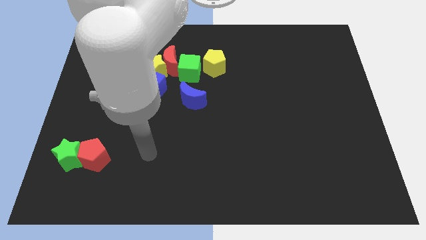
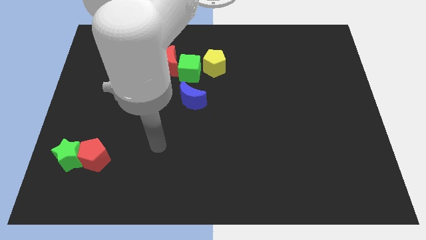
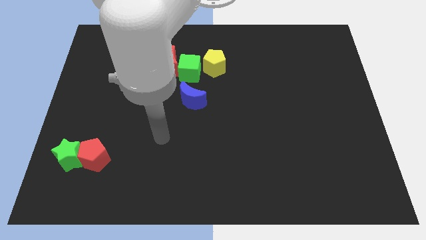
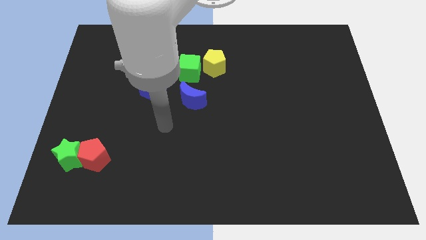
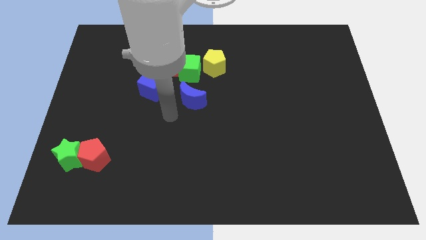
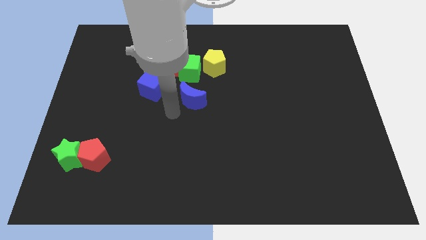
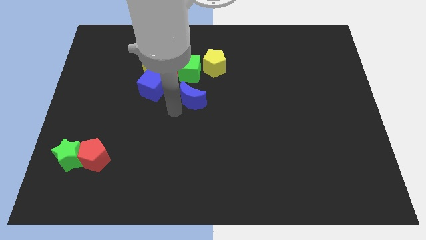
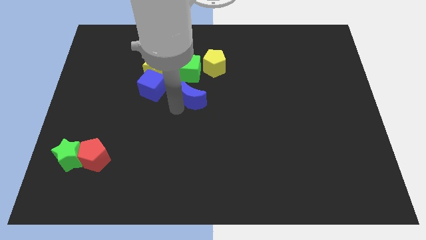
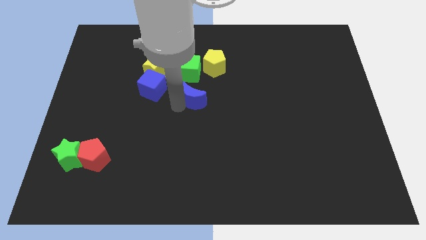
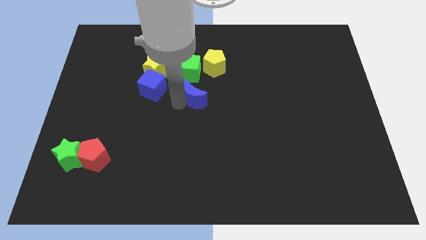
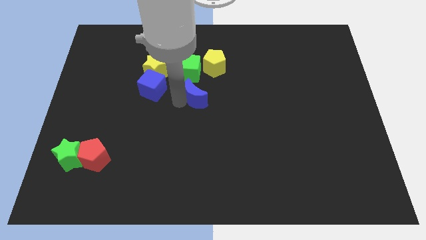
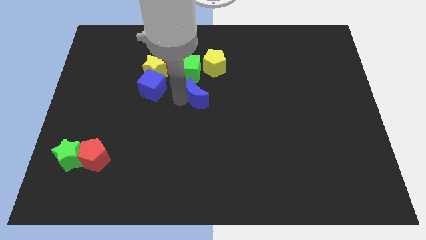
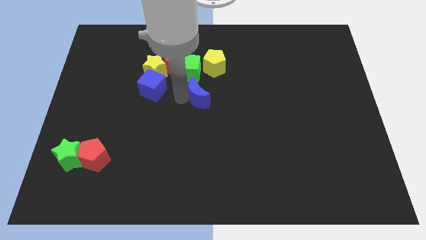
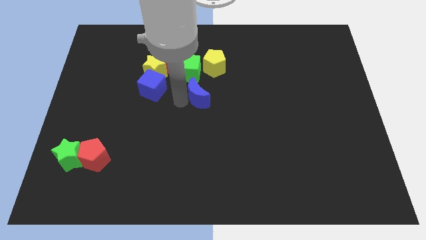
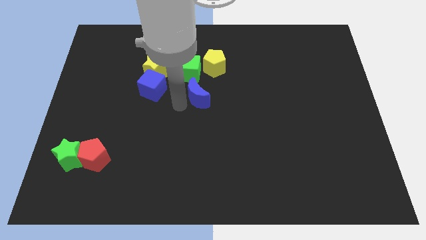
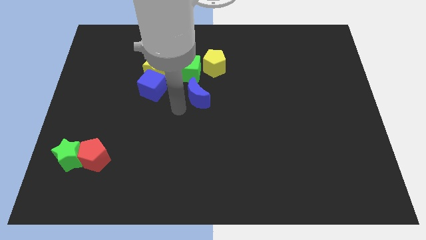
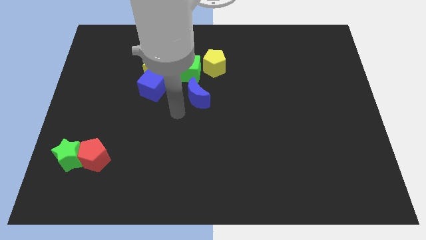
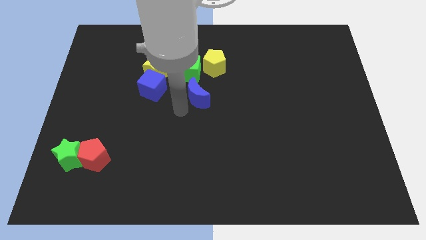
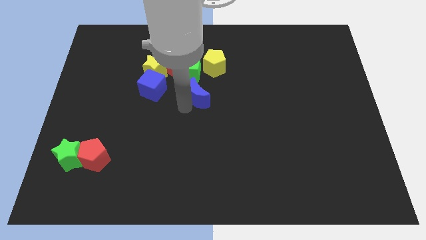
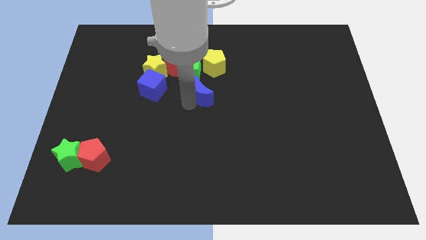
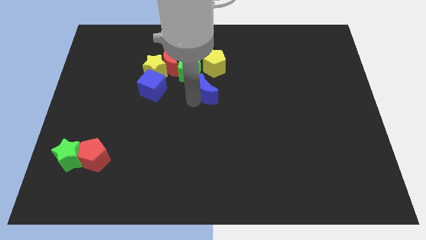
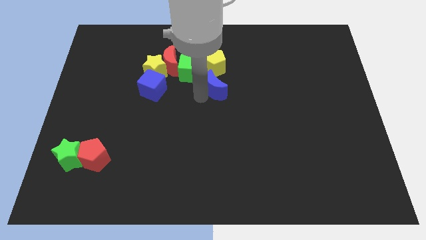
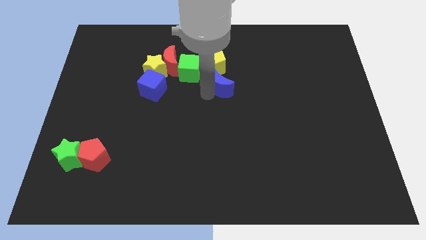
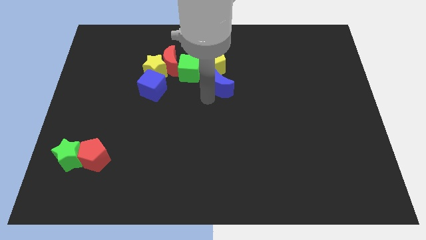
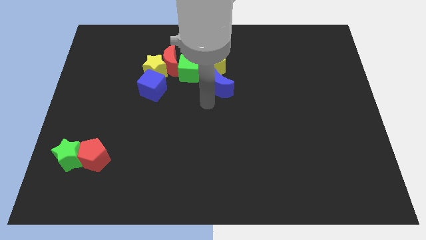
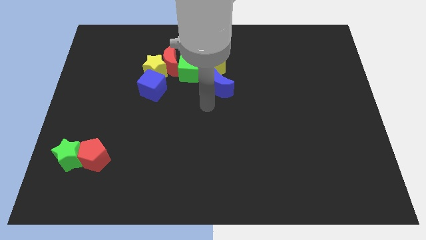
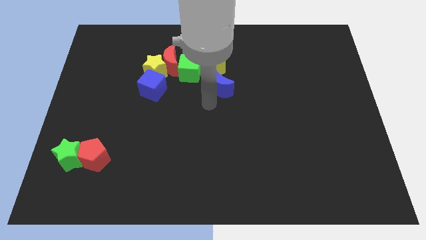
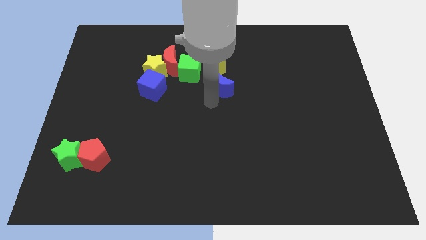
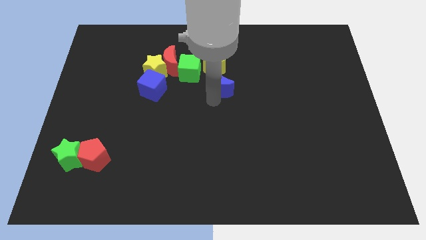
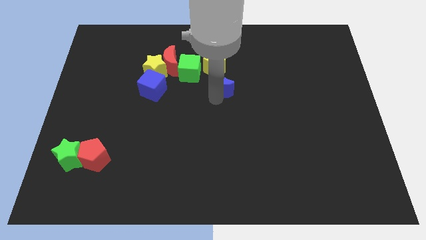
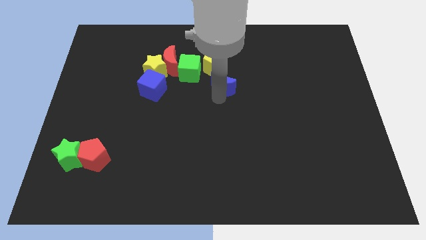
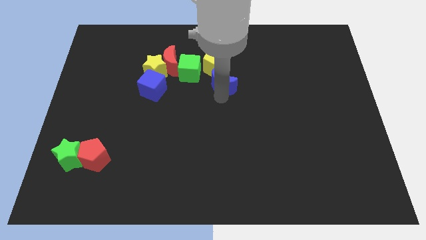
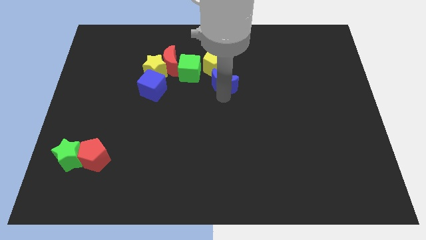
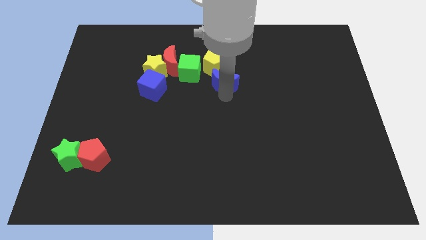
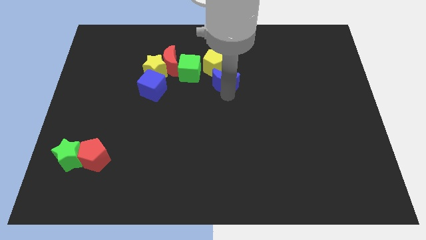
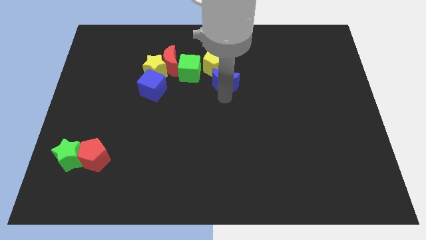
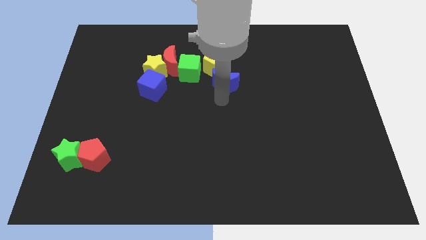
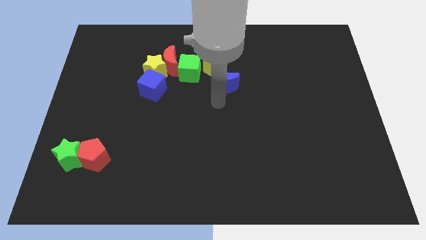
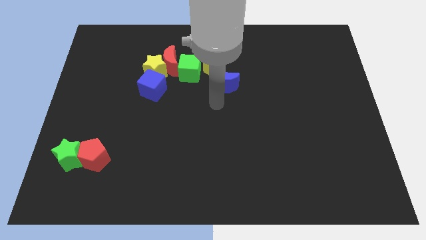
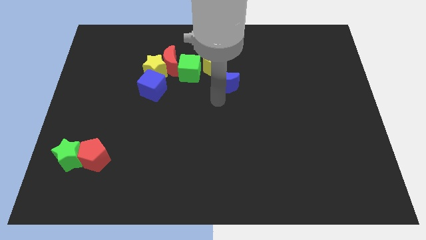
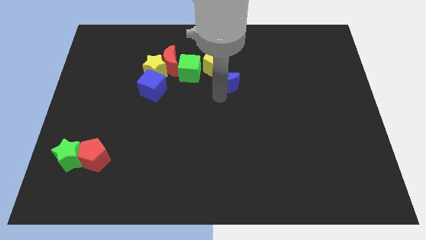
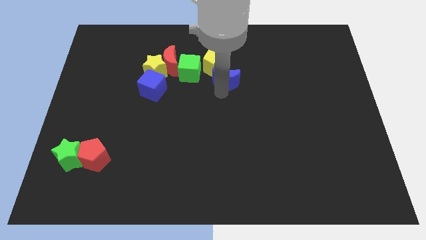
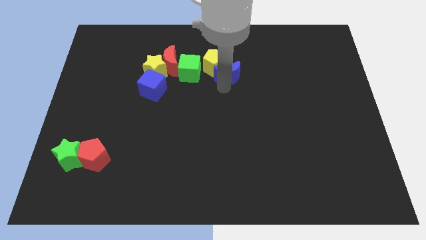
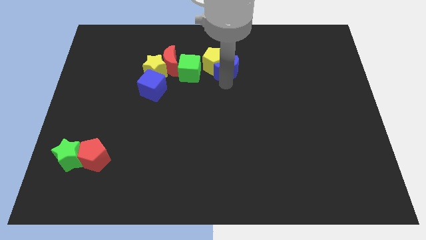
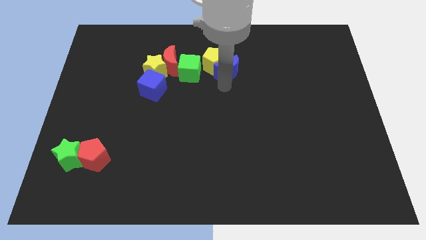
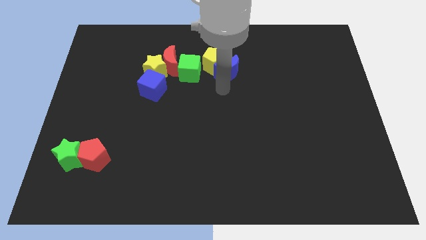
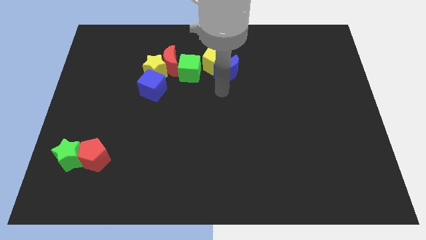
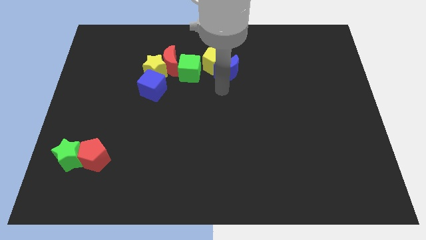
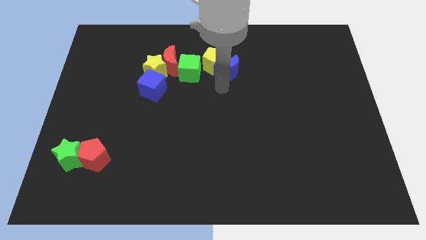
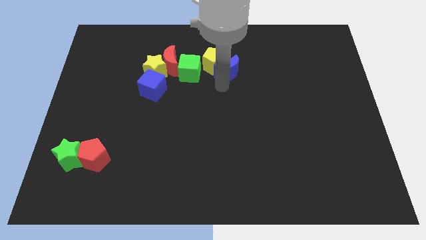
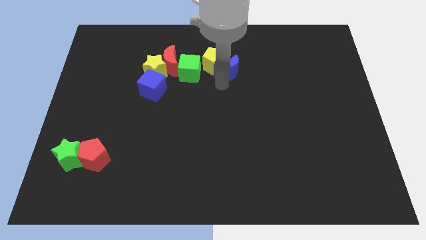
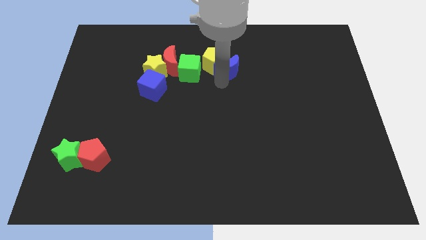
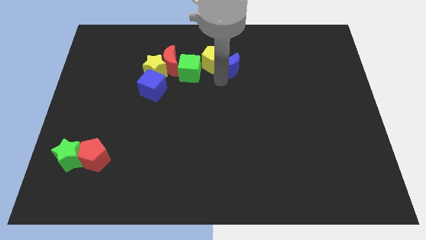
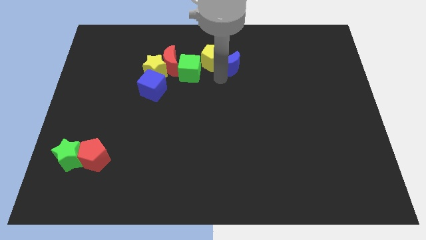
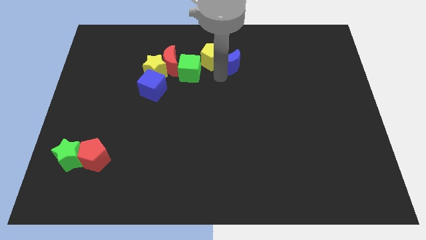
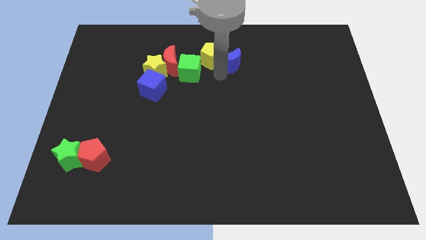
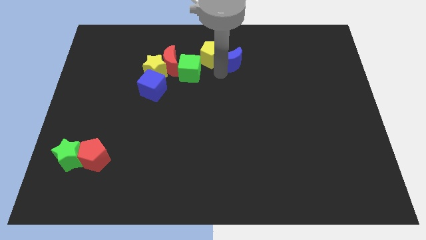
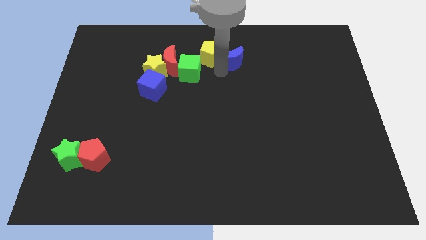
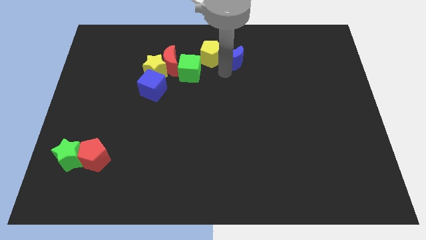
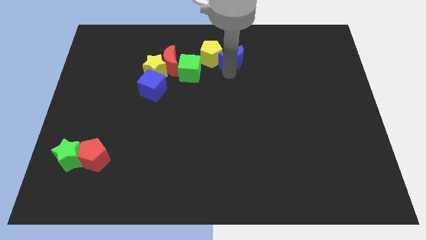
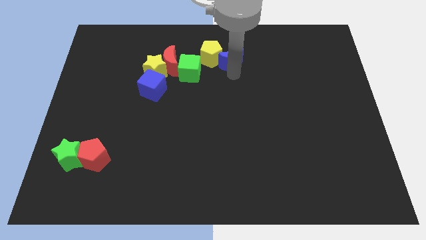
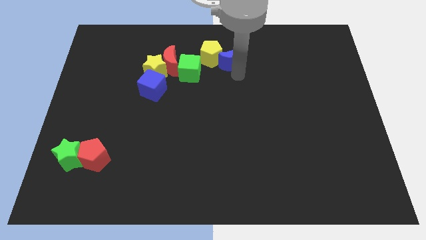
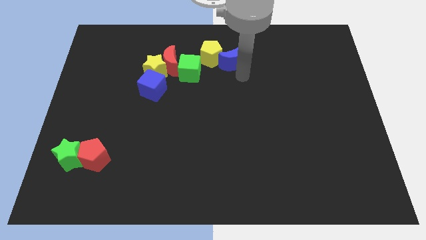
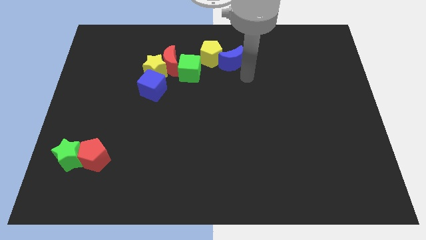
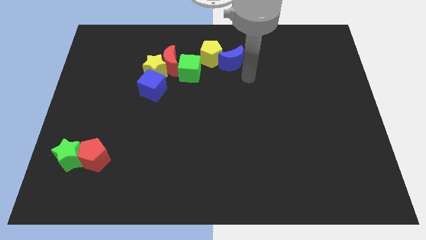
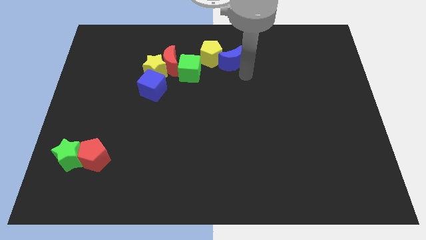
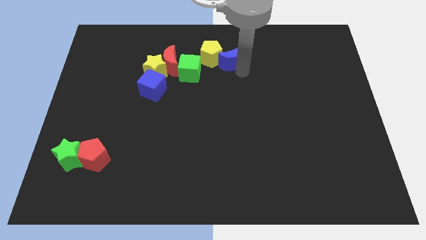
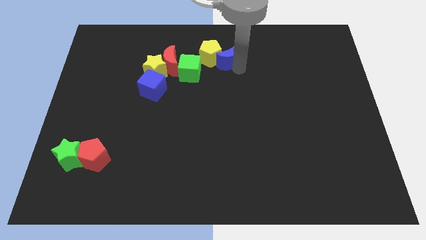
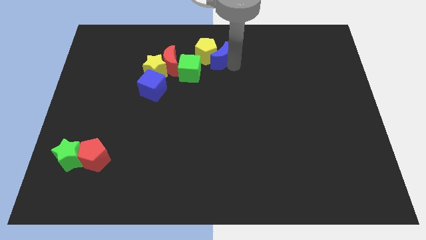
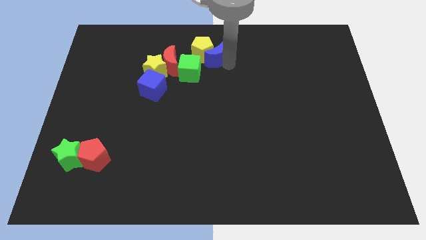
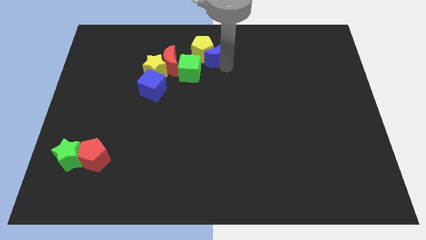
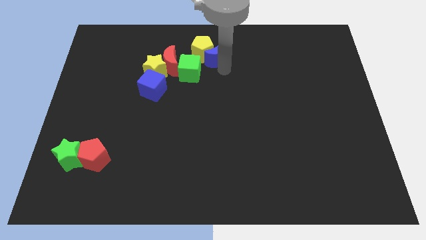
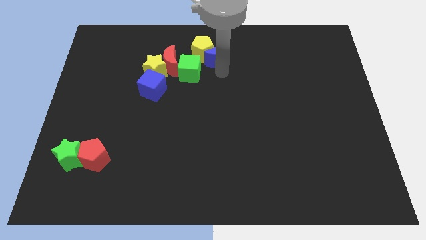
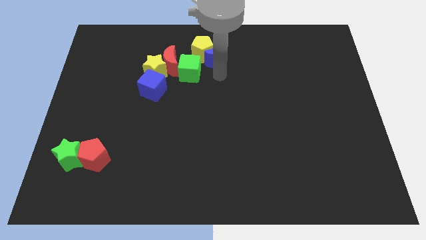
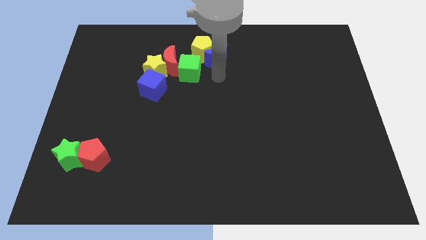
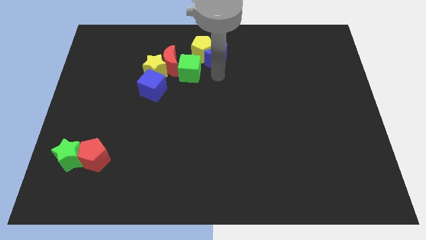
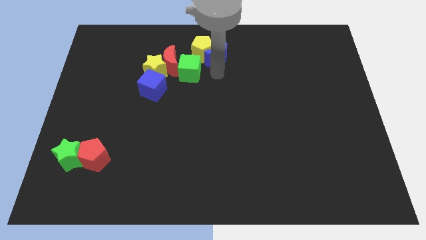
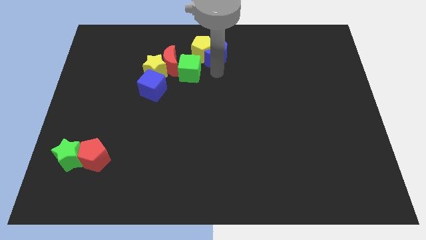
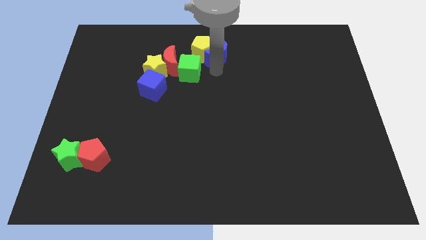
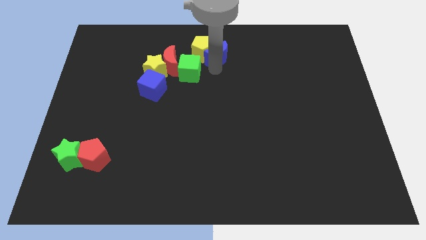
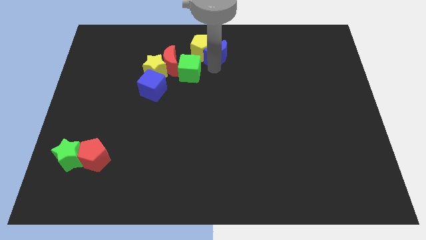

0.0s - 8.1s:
slide the blue moon to the top side
